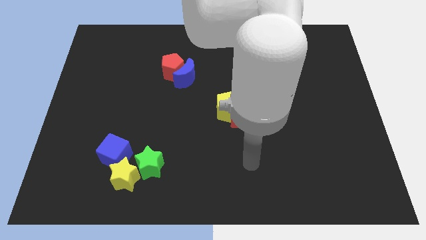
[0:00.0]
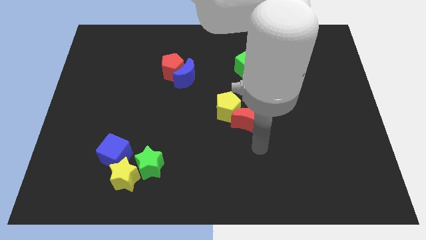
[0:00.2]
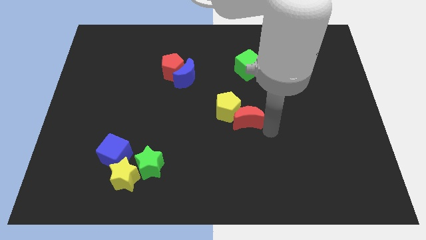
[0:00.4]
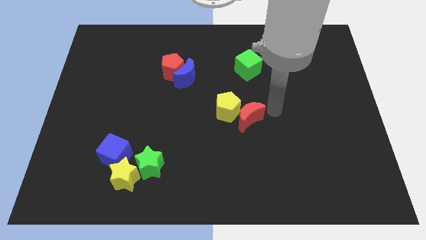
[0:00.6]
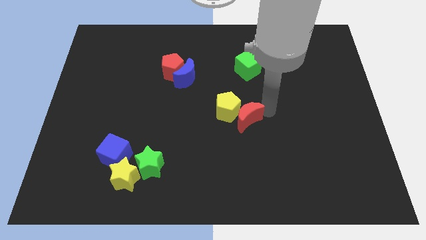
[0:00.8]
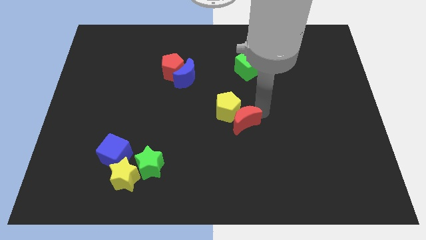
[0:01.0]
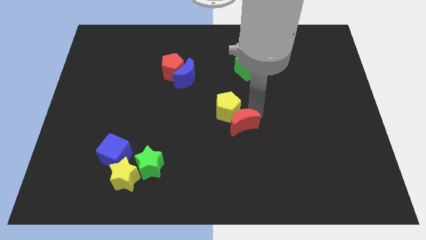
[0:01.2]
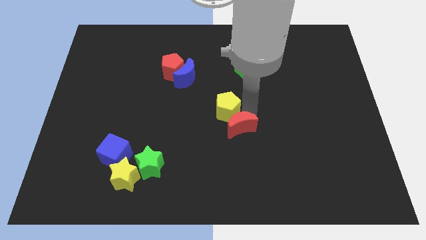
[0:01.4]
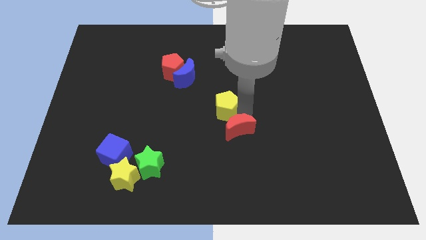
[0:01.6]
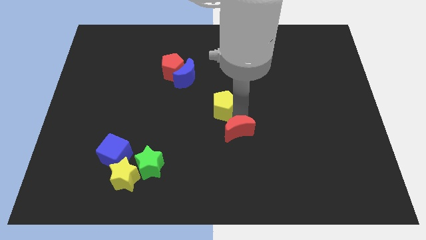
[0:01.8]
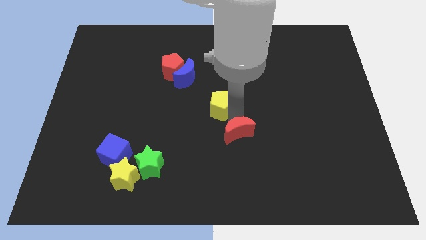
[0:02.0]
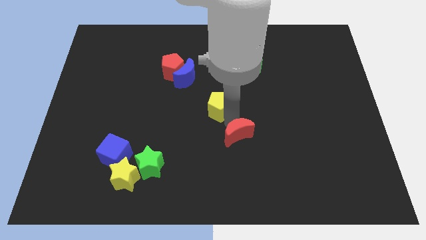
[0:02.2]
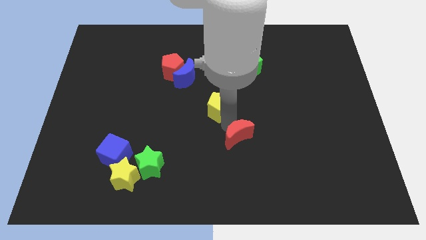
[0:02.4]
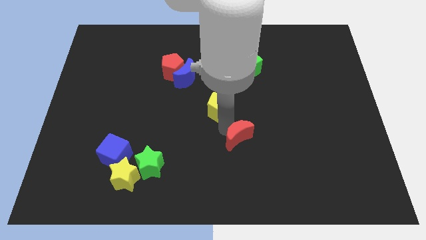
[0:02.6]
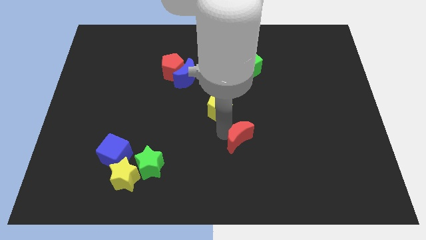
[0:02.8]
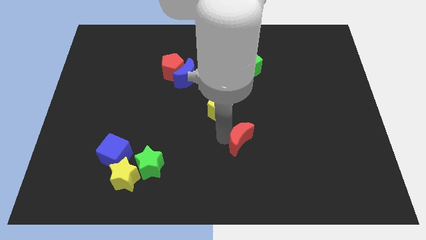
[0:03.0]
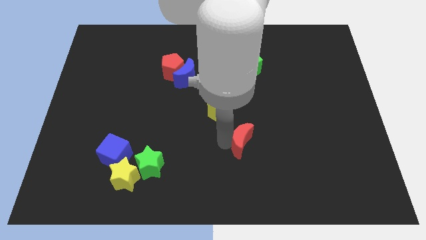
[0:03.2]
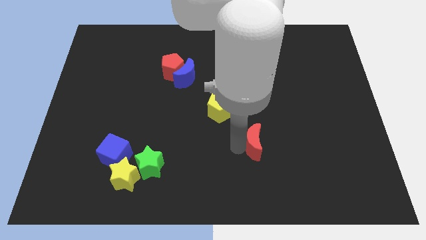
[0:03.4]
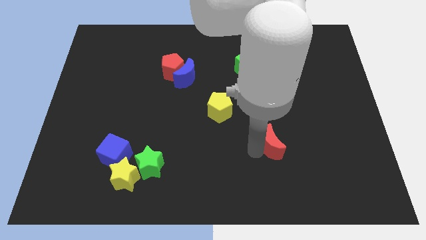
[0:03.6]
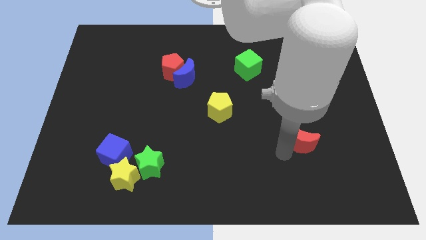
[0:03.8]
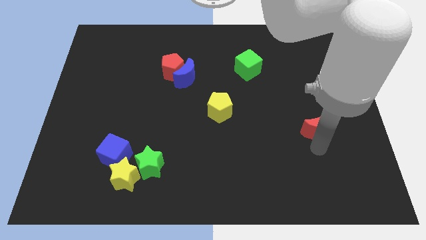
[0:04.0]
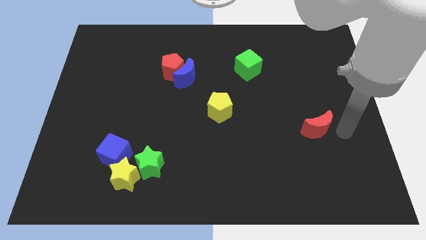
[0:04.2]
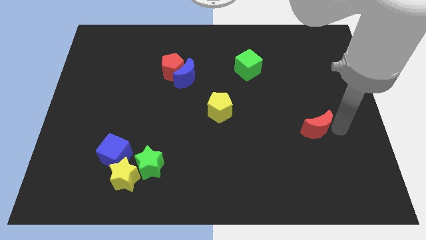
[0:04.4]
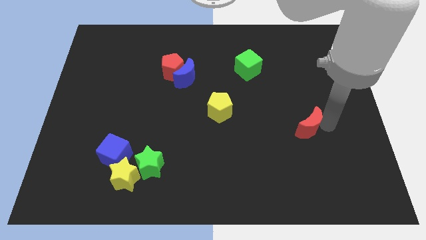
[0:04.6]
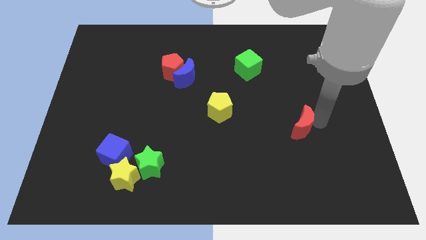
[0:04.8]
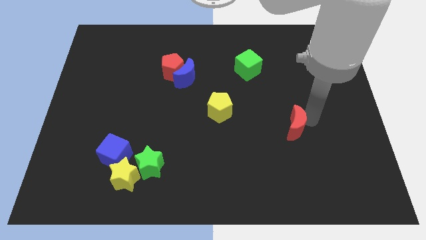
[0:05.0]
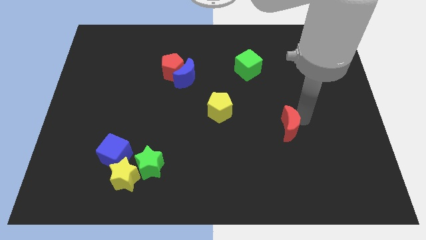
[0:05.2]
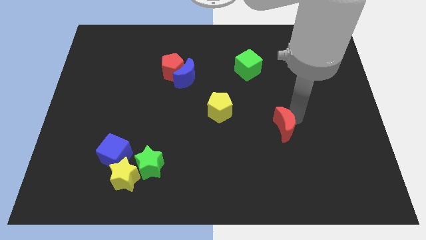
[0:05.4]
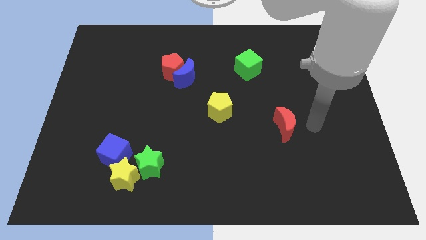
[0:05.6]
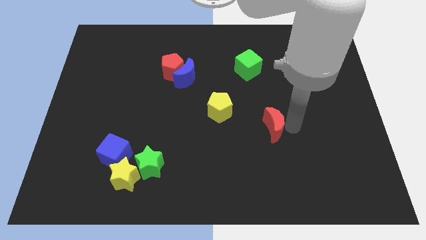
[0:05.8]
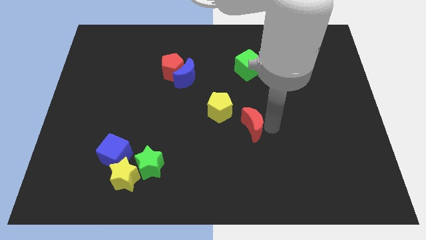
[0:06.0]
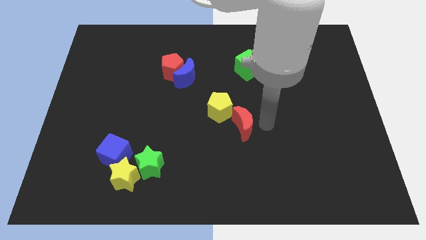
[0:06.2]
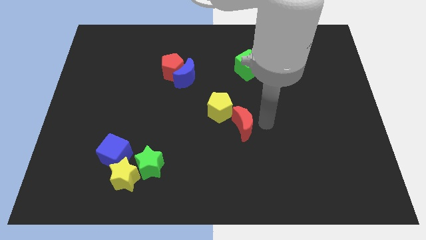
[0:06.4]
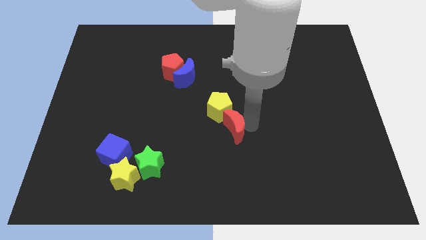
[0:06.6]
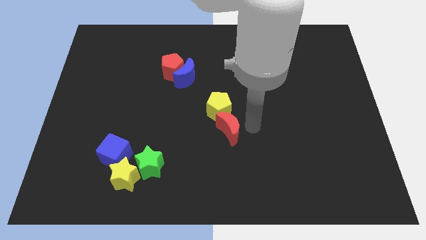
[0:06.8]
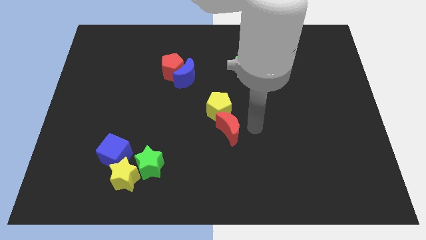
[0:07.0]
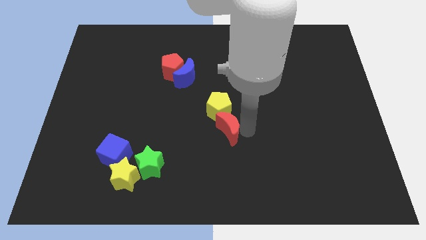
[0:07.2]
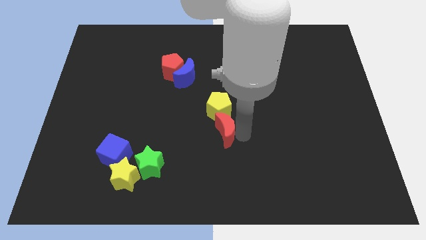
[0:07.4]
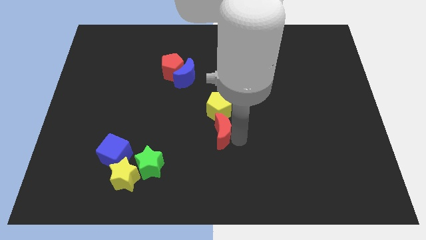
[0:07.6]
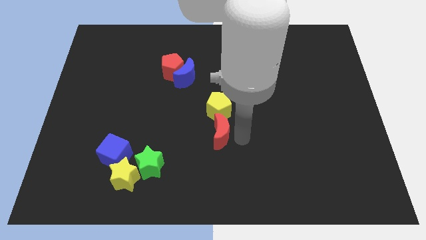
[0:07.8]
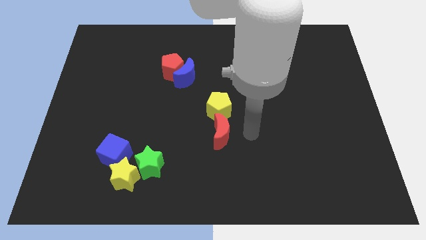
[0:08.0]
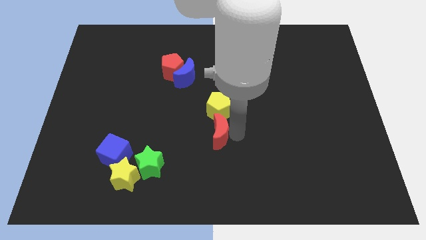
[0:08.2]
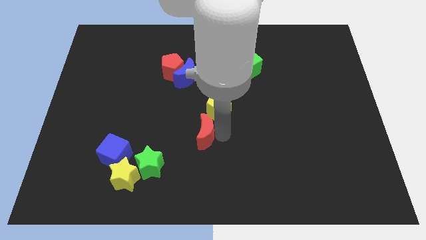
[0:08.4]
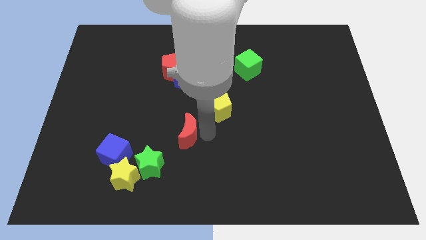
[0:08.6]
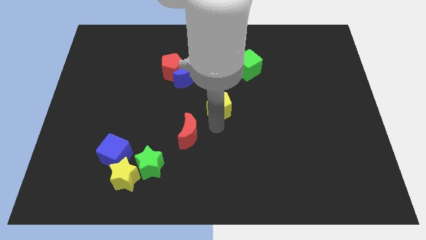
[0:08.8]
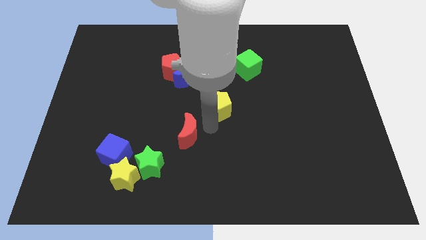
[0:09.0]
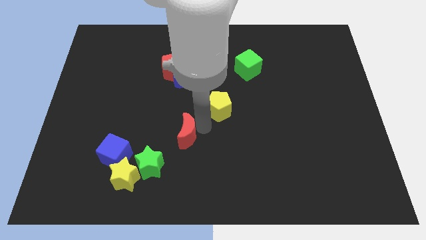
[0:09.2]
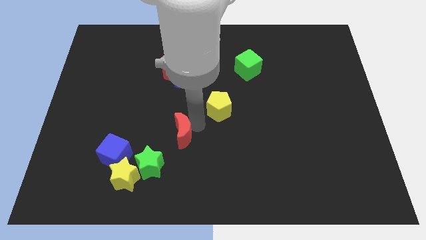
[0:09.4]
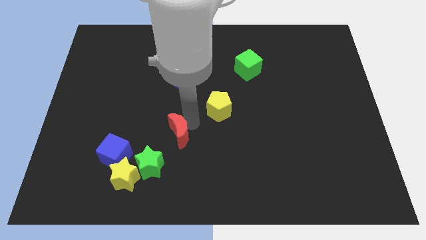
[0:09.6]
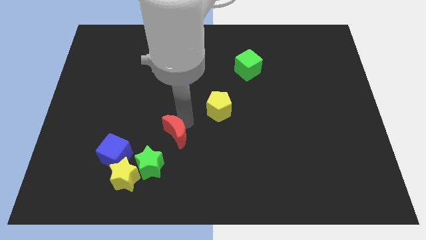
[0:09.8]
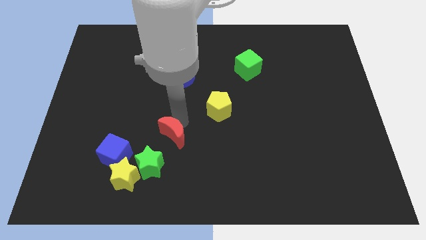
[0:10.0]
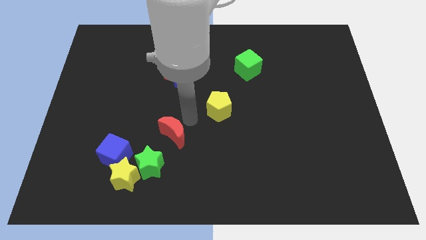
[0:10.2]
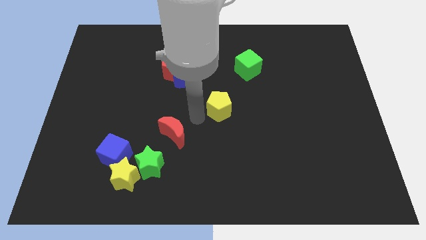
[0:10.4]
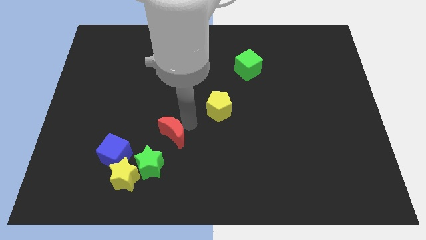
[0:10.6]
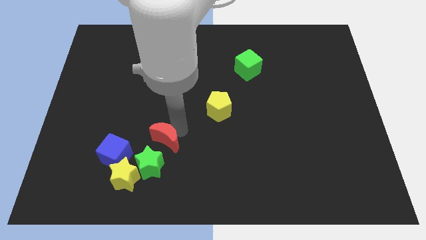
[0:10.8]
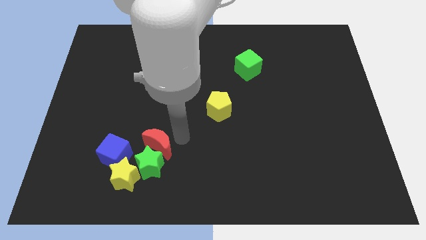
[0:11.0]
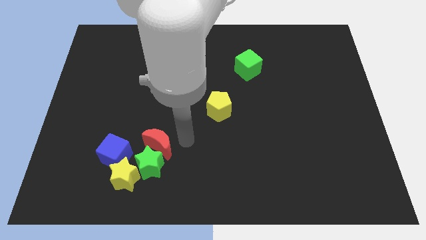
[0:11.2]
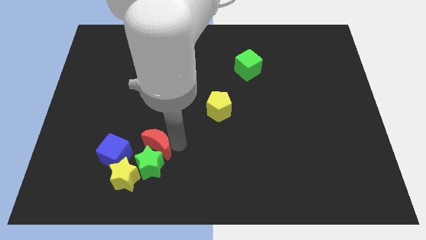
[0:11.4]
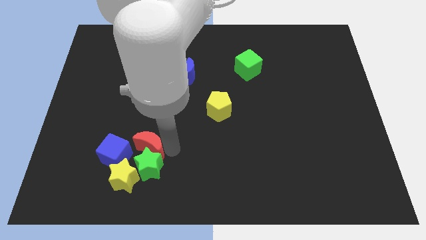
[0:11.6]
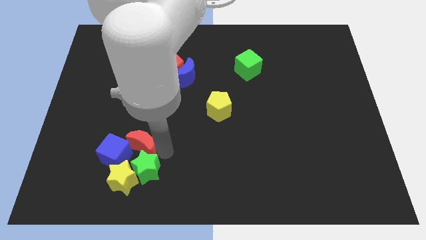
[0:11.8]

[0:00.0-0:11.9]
move the red moon towards the blue cube

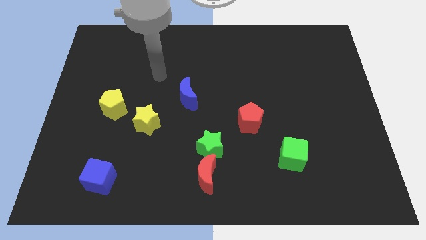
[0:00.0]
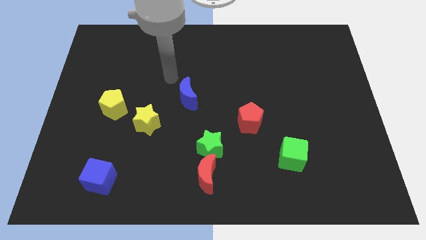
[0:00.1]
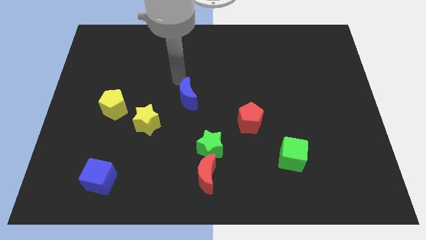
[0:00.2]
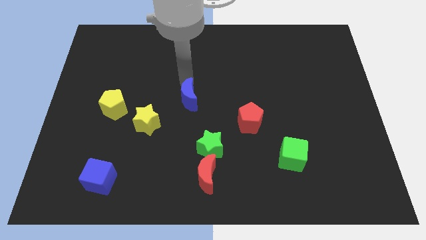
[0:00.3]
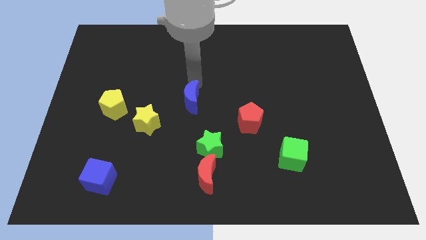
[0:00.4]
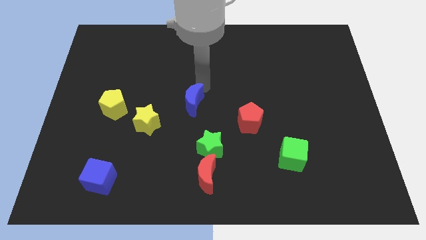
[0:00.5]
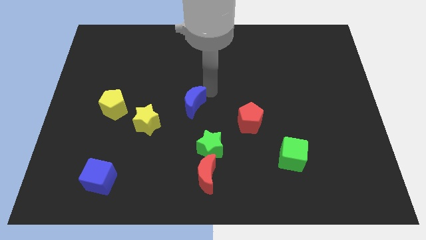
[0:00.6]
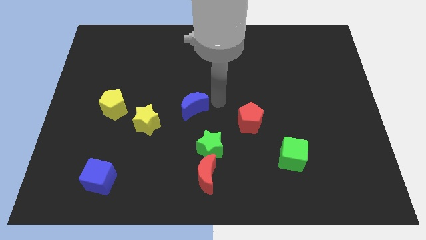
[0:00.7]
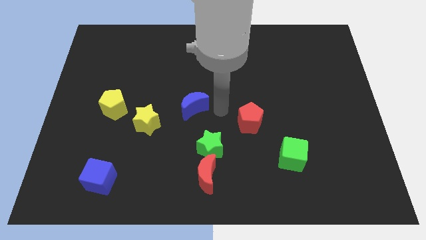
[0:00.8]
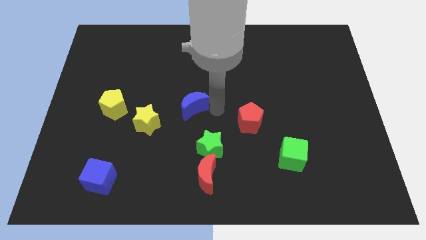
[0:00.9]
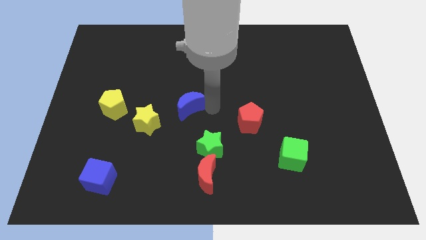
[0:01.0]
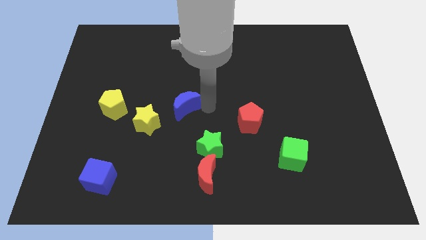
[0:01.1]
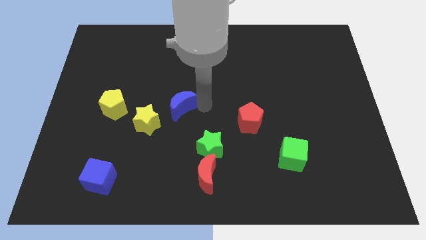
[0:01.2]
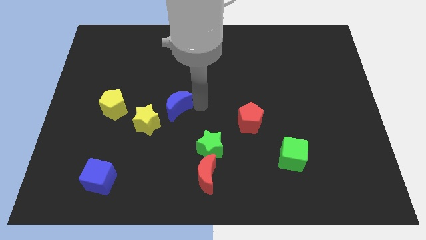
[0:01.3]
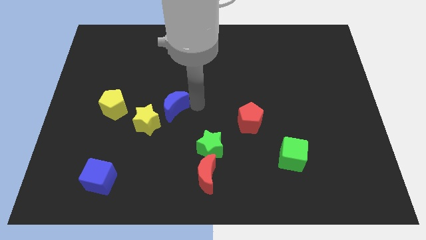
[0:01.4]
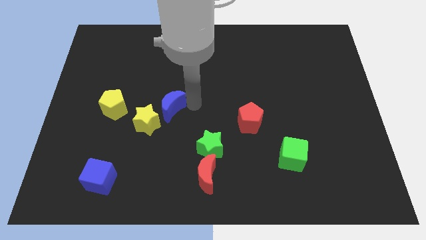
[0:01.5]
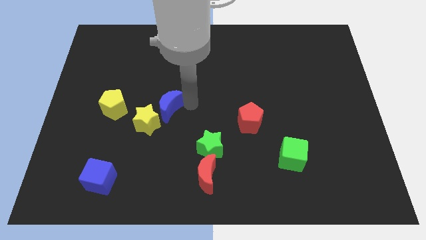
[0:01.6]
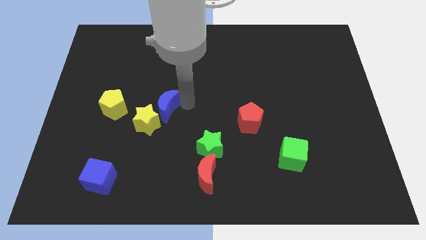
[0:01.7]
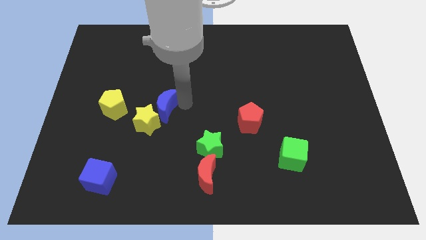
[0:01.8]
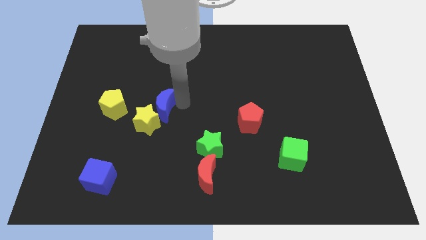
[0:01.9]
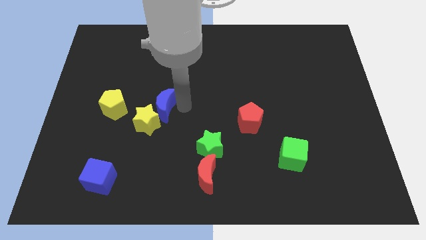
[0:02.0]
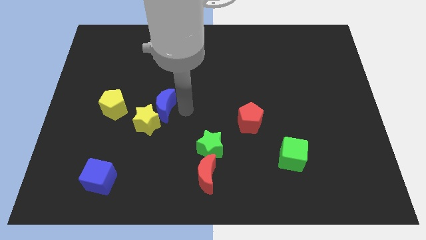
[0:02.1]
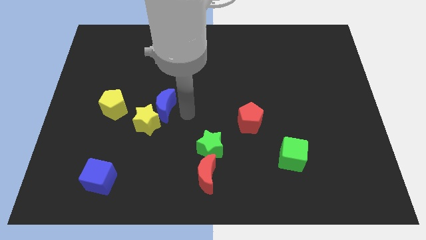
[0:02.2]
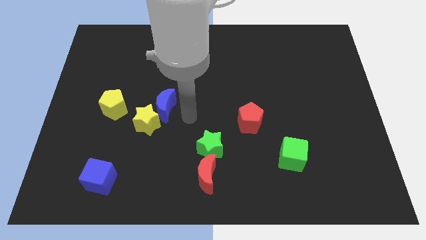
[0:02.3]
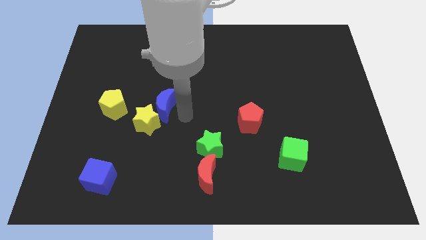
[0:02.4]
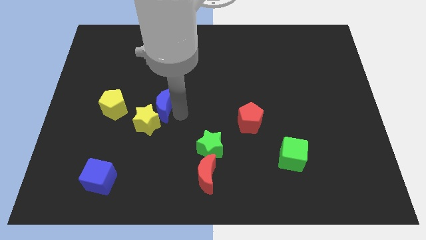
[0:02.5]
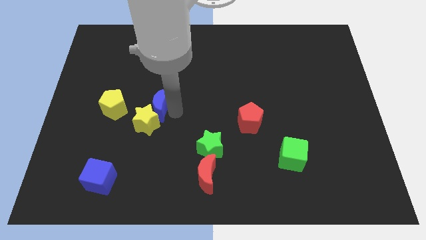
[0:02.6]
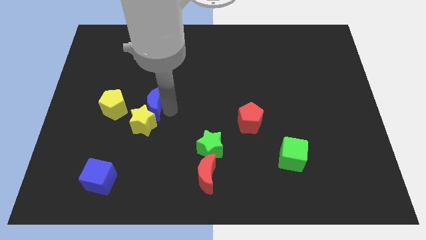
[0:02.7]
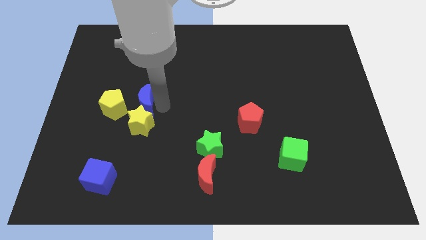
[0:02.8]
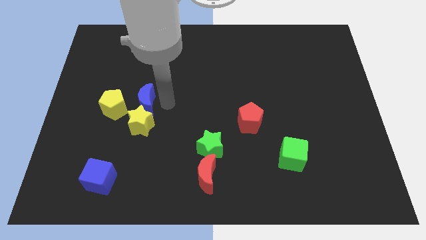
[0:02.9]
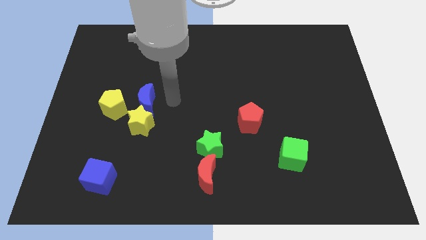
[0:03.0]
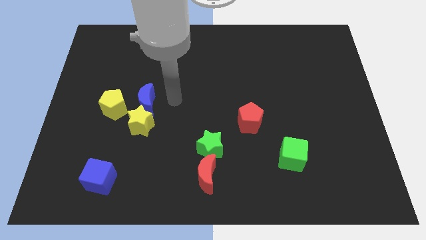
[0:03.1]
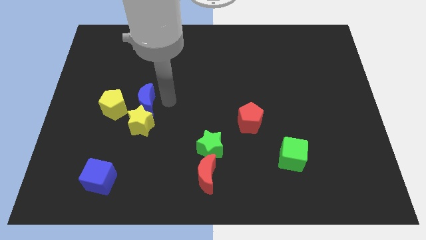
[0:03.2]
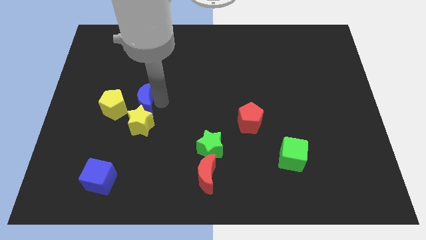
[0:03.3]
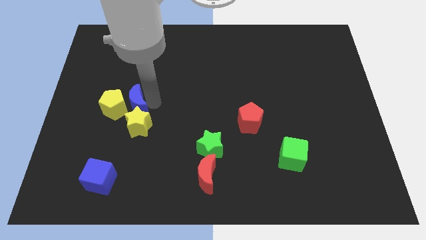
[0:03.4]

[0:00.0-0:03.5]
slide the blue moon towards the yellow pentagon
